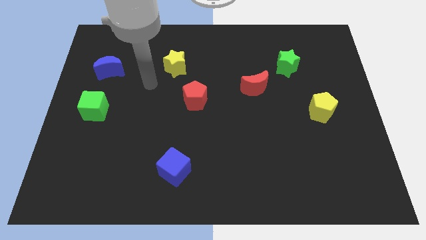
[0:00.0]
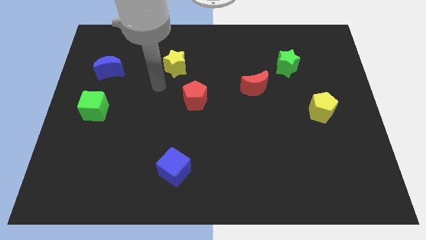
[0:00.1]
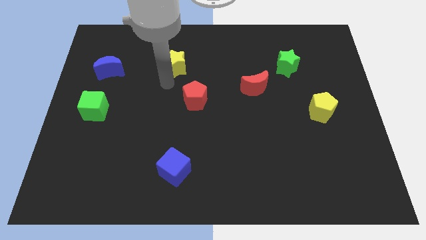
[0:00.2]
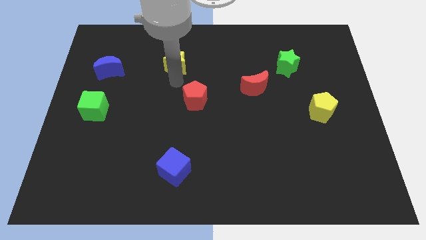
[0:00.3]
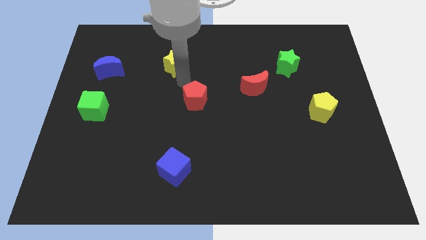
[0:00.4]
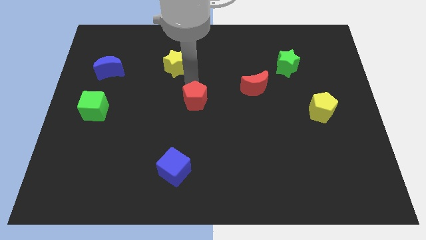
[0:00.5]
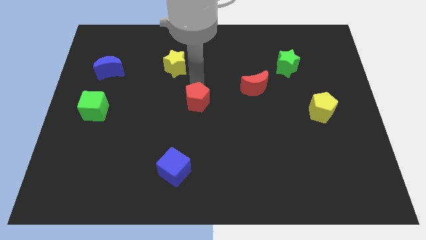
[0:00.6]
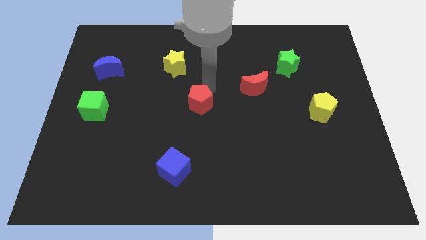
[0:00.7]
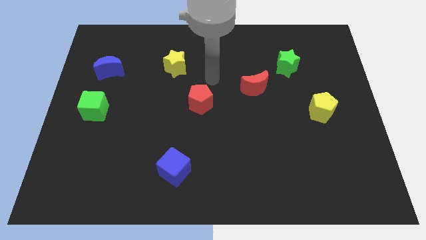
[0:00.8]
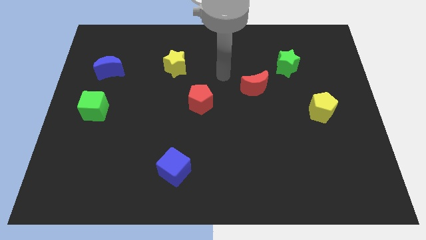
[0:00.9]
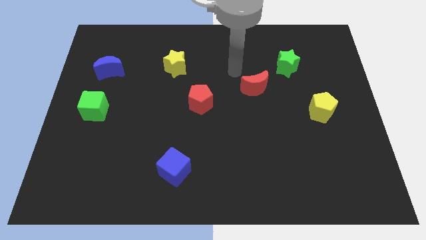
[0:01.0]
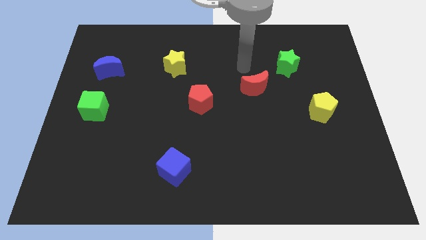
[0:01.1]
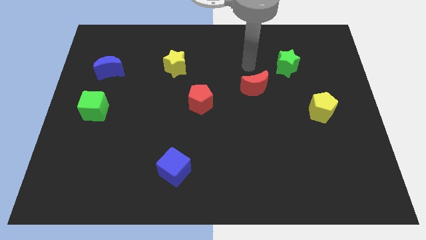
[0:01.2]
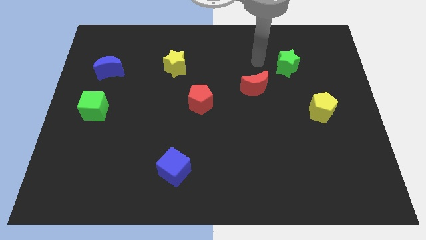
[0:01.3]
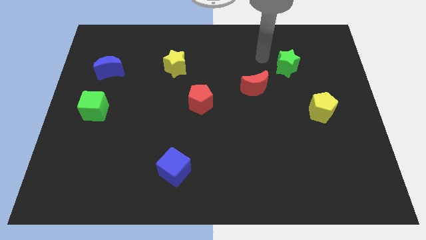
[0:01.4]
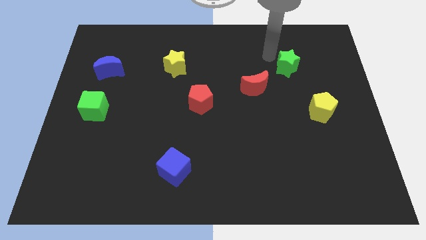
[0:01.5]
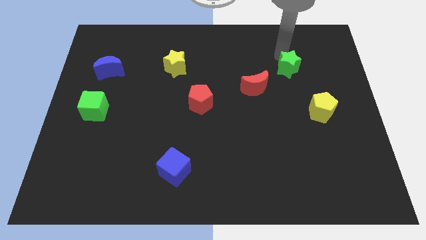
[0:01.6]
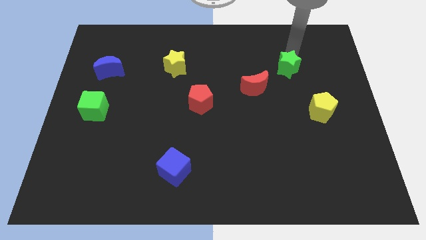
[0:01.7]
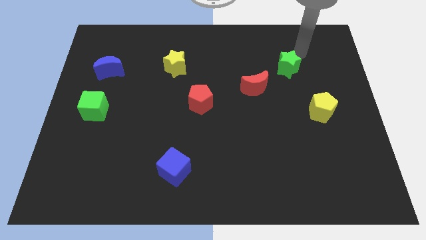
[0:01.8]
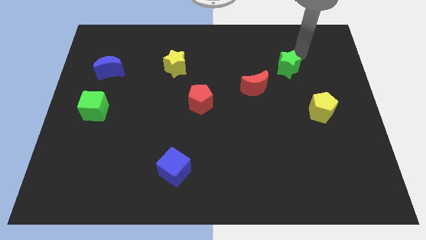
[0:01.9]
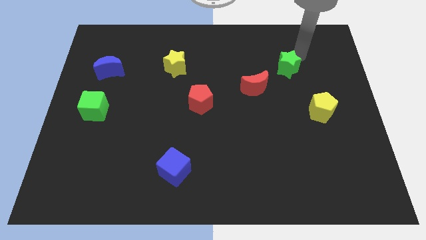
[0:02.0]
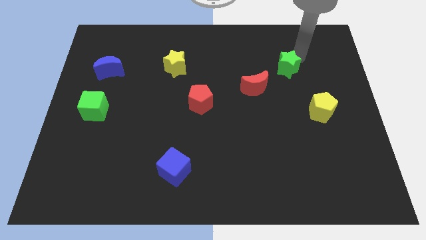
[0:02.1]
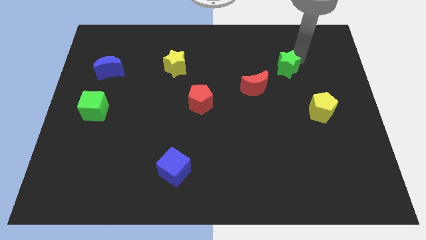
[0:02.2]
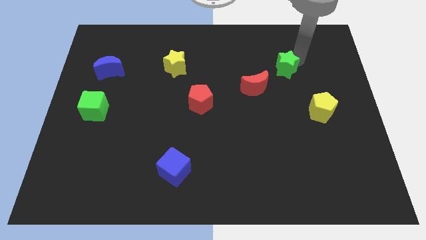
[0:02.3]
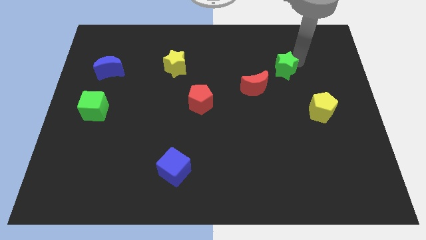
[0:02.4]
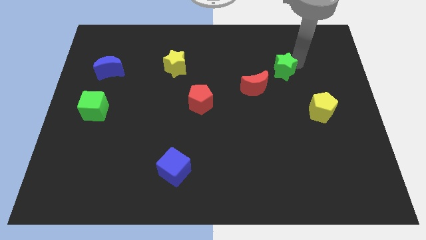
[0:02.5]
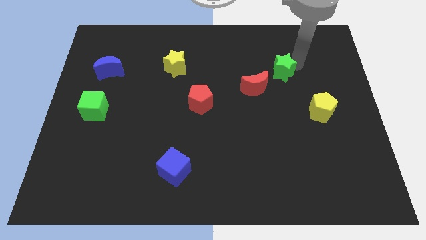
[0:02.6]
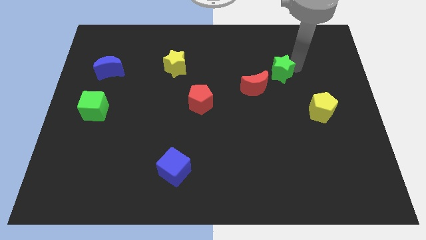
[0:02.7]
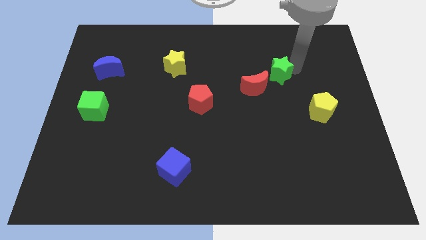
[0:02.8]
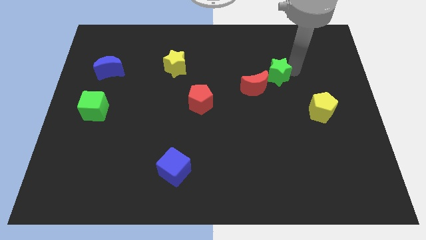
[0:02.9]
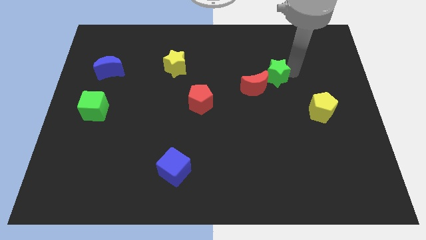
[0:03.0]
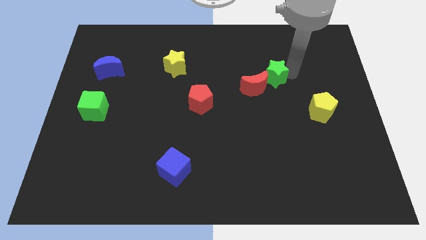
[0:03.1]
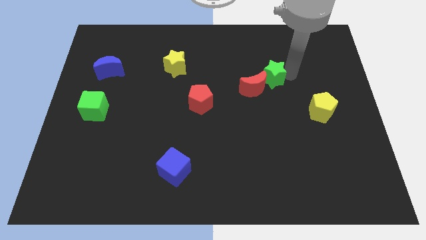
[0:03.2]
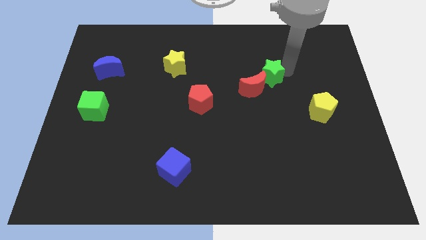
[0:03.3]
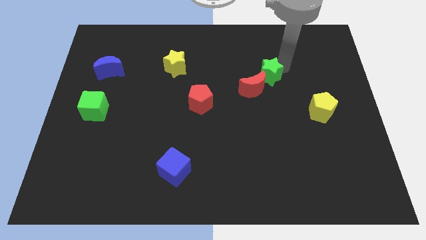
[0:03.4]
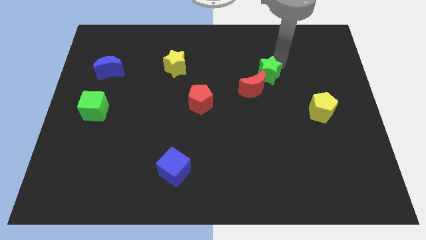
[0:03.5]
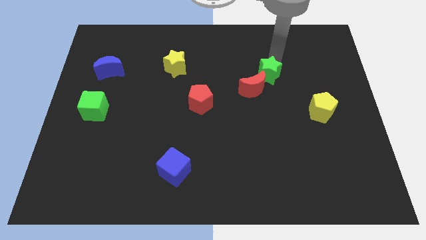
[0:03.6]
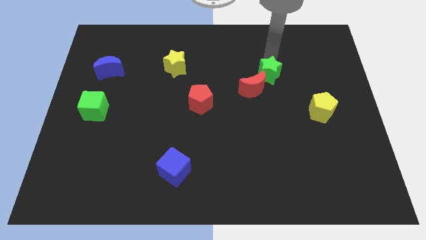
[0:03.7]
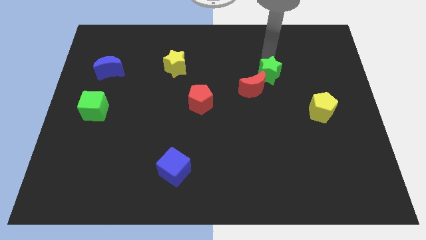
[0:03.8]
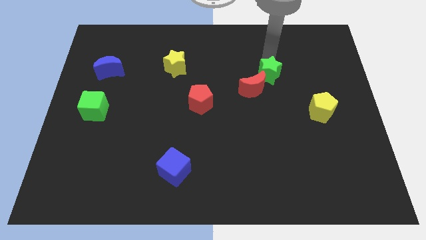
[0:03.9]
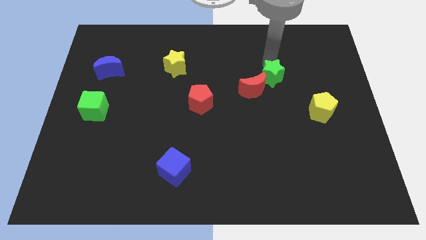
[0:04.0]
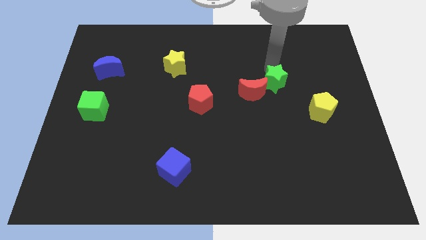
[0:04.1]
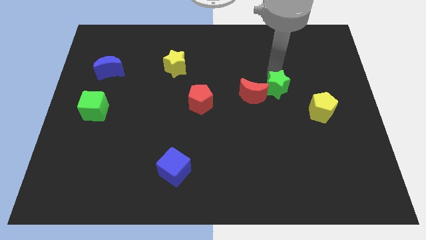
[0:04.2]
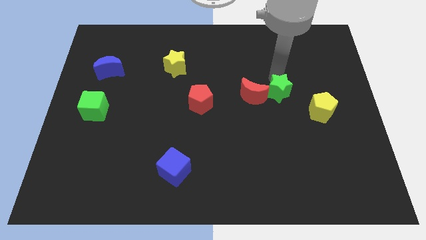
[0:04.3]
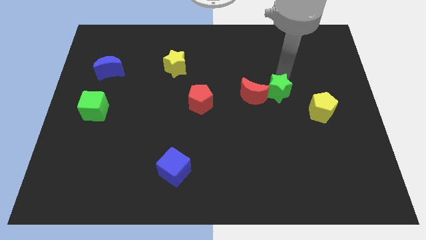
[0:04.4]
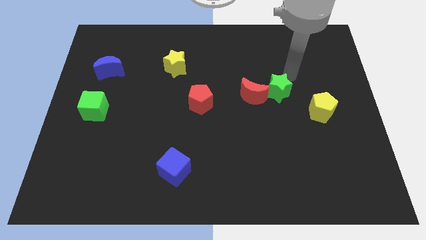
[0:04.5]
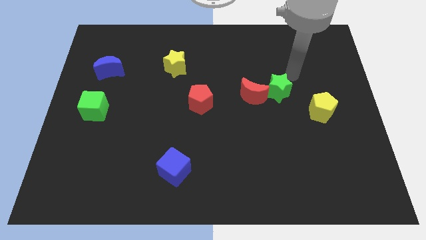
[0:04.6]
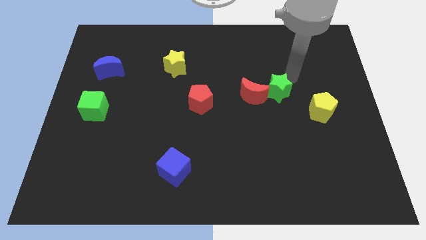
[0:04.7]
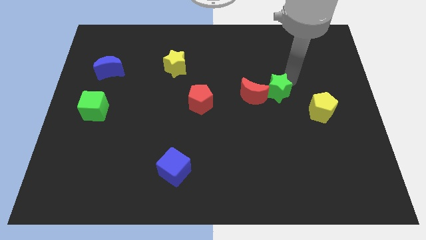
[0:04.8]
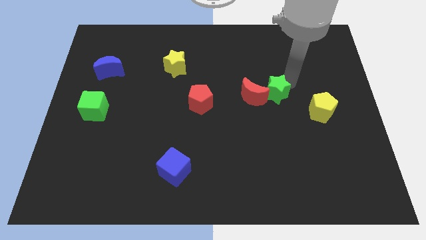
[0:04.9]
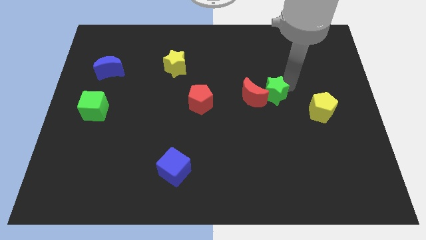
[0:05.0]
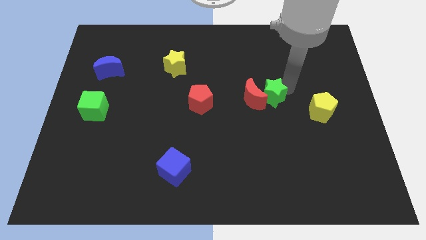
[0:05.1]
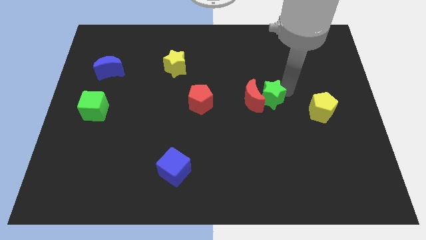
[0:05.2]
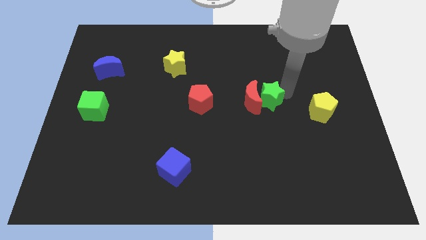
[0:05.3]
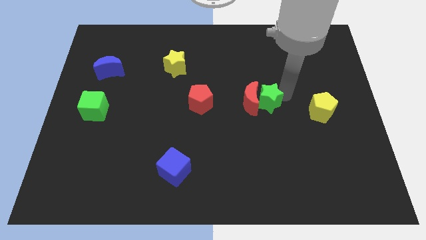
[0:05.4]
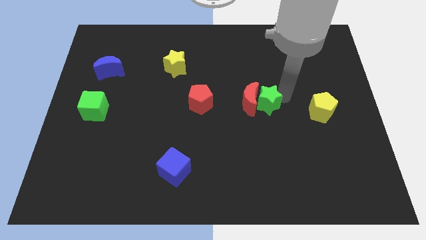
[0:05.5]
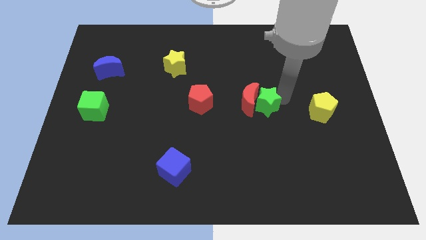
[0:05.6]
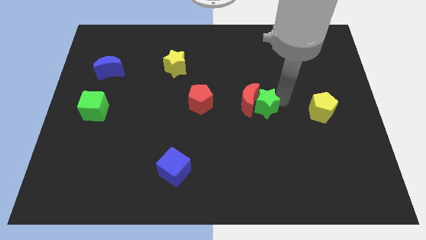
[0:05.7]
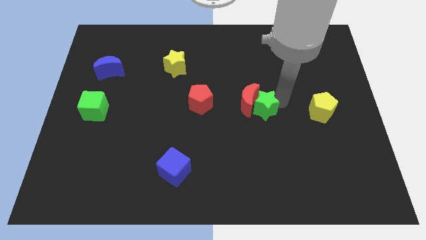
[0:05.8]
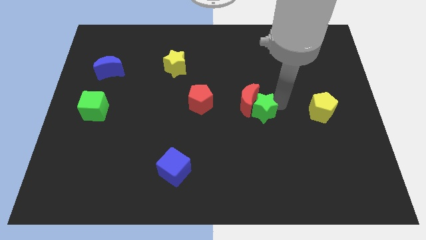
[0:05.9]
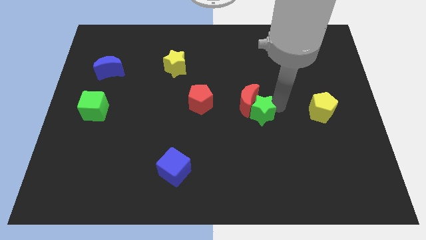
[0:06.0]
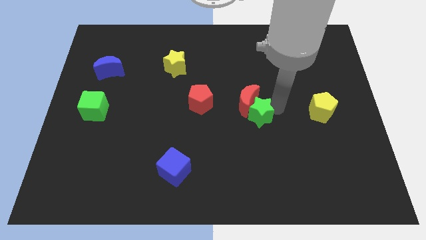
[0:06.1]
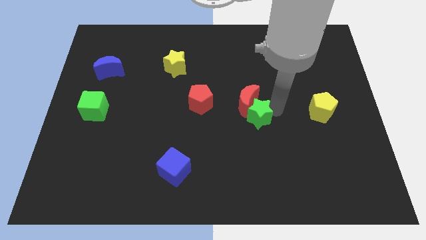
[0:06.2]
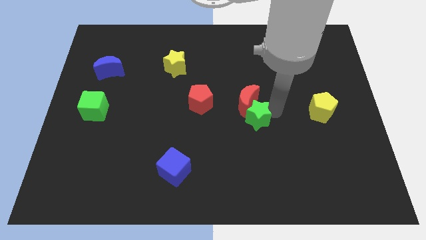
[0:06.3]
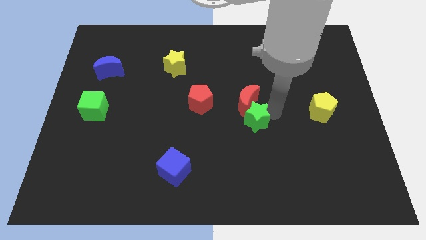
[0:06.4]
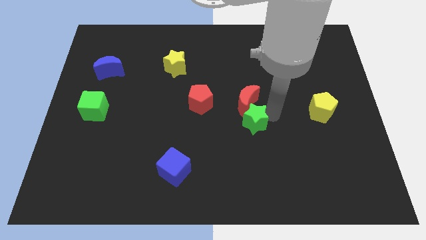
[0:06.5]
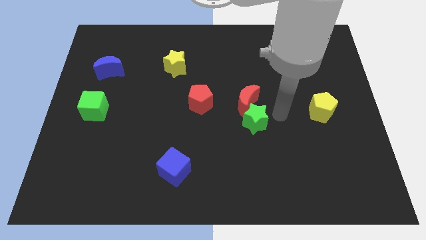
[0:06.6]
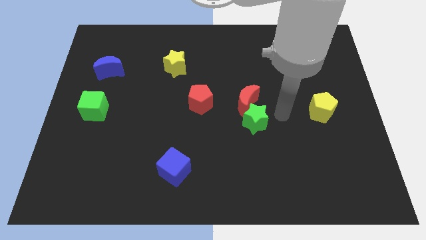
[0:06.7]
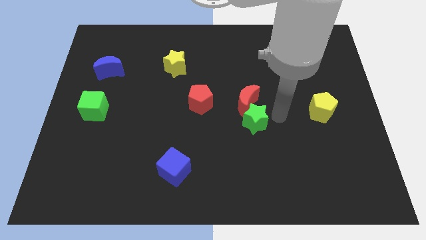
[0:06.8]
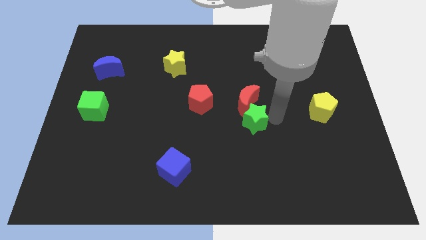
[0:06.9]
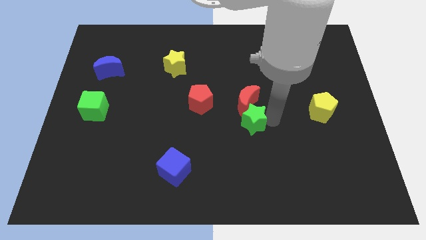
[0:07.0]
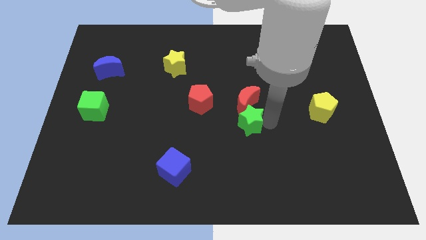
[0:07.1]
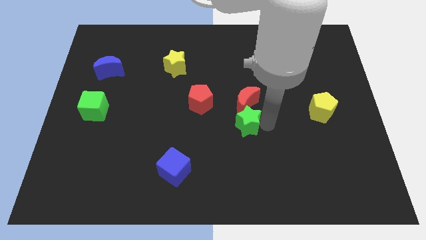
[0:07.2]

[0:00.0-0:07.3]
slide the green star downwards and to the left diagonally

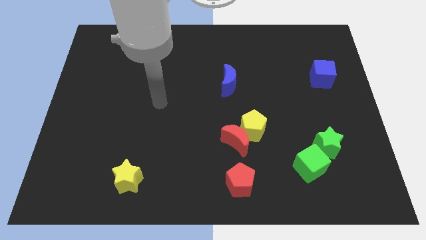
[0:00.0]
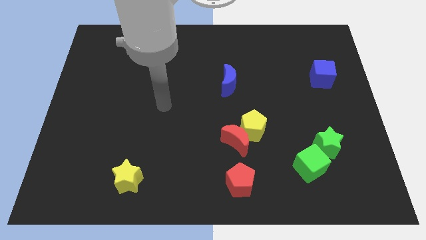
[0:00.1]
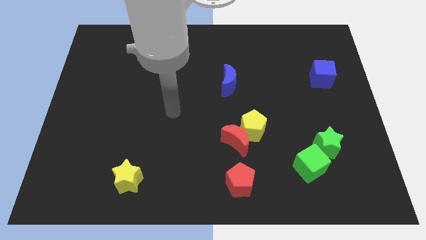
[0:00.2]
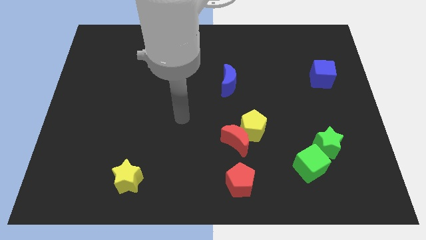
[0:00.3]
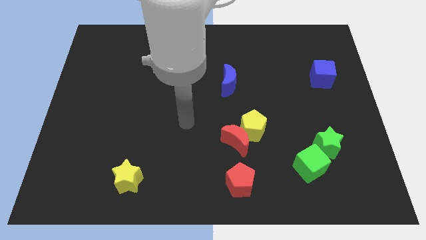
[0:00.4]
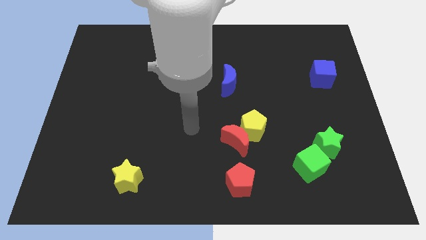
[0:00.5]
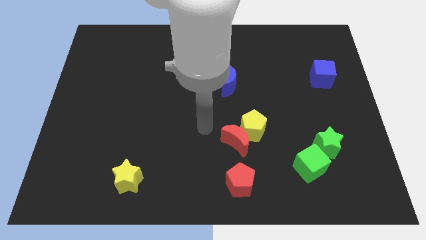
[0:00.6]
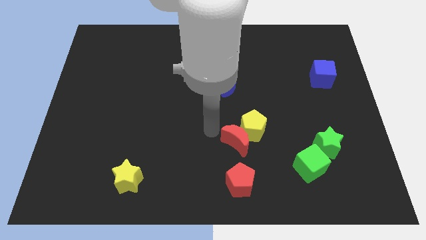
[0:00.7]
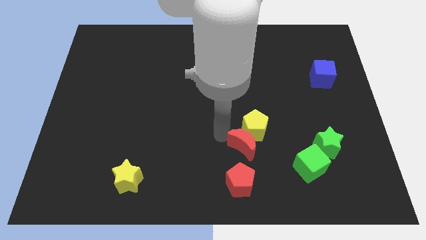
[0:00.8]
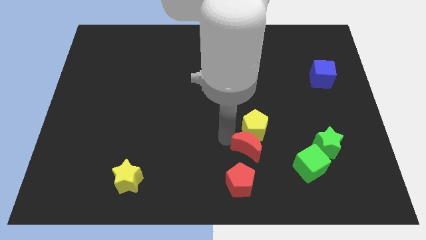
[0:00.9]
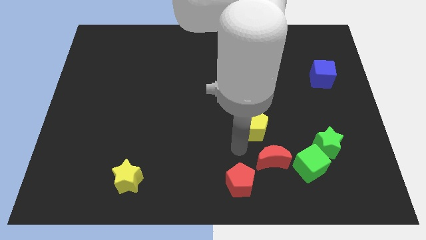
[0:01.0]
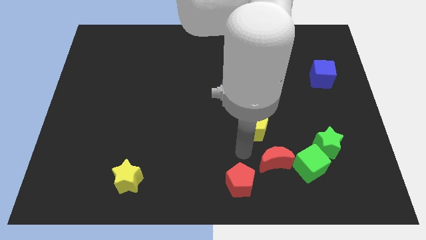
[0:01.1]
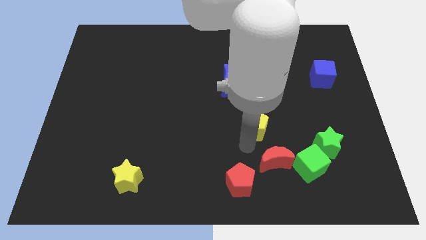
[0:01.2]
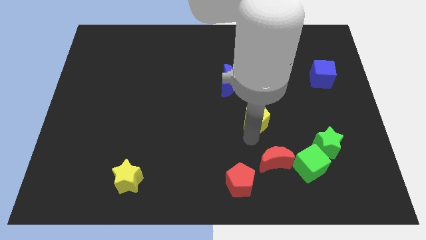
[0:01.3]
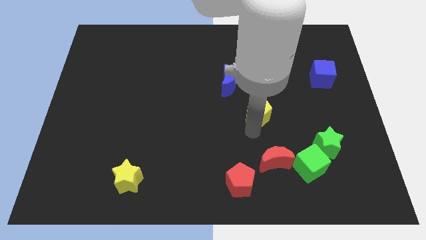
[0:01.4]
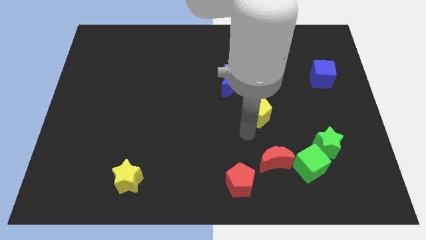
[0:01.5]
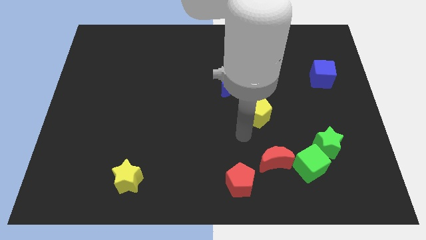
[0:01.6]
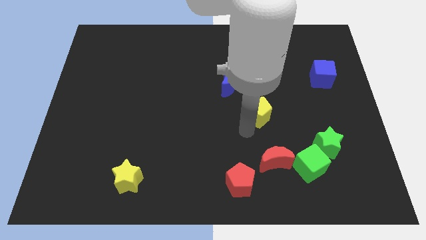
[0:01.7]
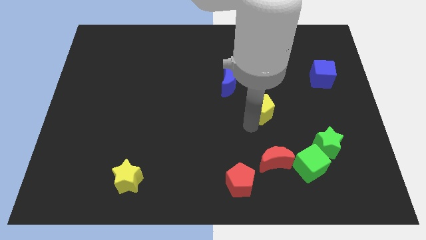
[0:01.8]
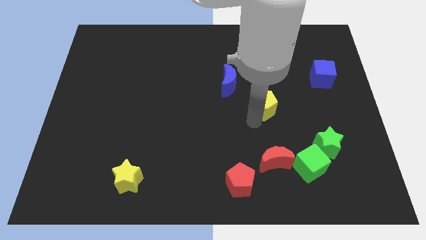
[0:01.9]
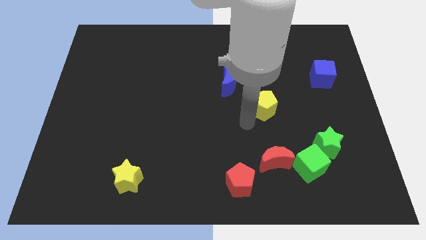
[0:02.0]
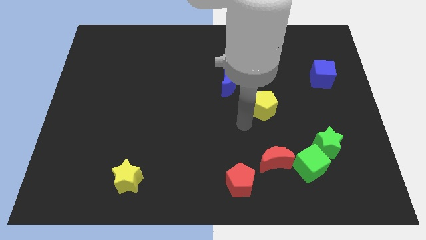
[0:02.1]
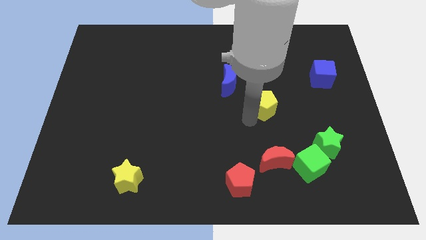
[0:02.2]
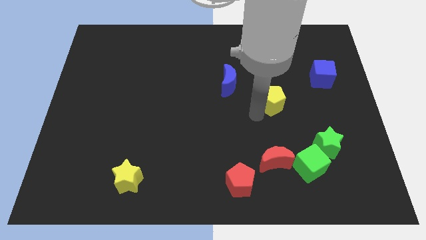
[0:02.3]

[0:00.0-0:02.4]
slide the yellow pentagon a bit up and right diagonally
